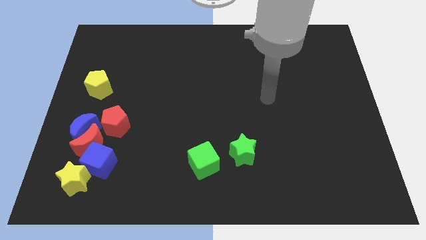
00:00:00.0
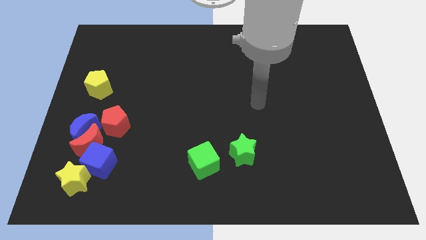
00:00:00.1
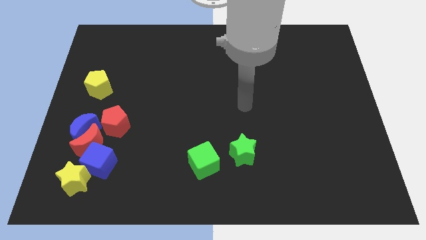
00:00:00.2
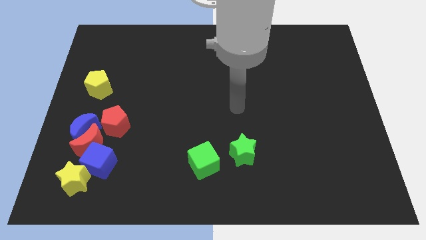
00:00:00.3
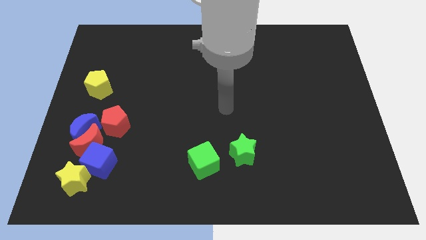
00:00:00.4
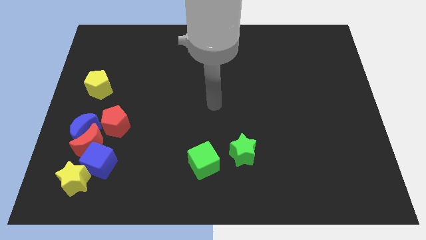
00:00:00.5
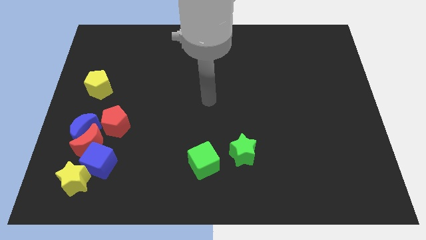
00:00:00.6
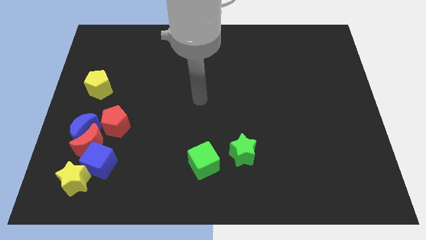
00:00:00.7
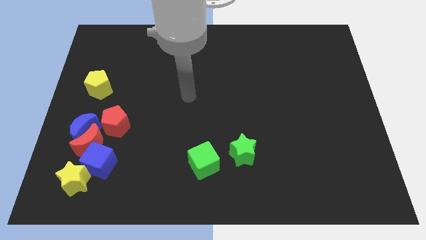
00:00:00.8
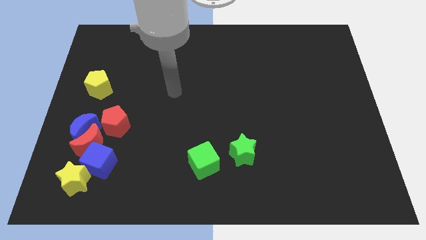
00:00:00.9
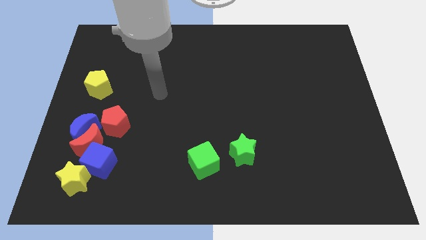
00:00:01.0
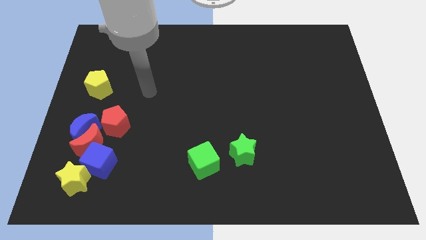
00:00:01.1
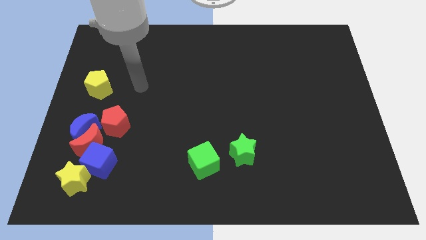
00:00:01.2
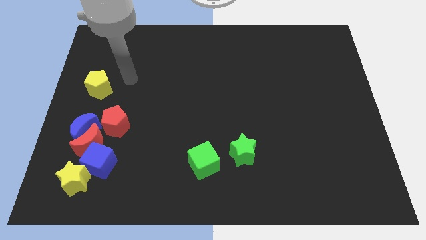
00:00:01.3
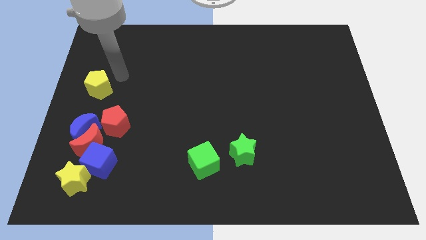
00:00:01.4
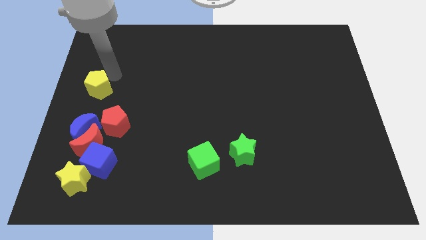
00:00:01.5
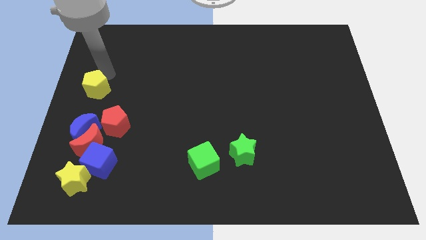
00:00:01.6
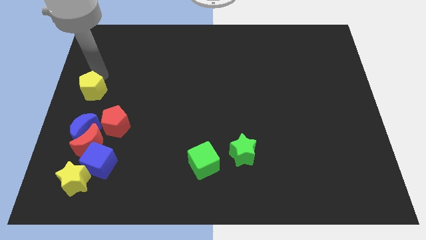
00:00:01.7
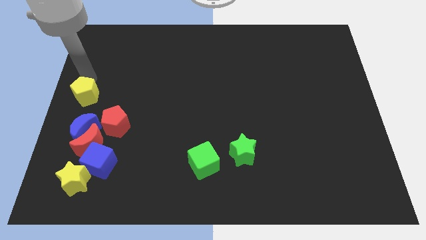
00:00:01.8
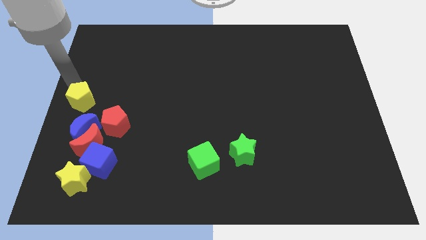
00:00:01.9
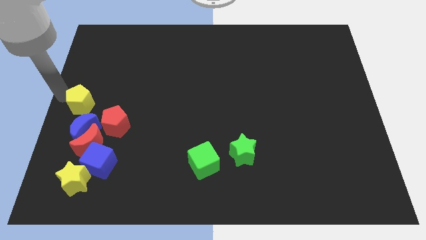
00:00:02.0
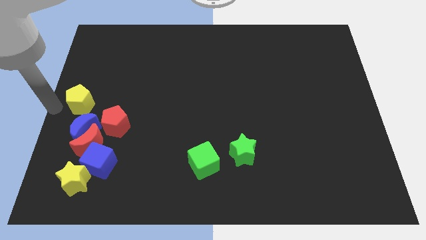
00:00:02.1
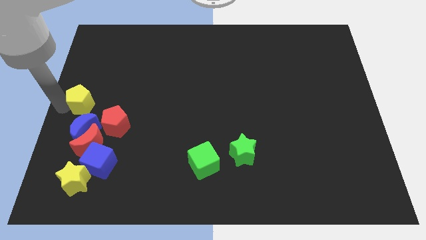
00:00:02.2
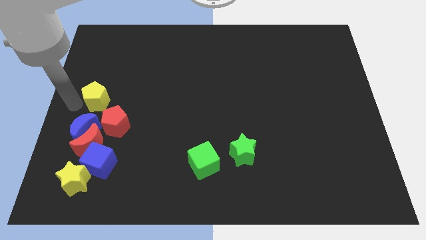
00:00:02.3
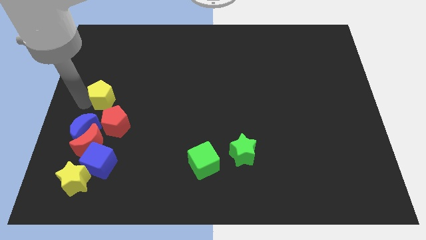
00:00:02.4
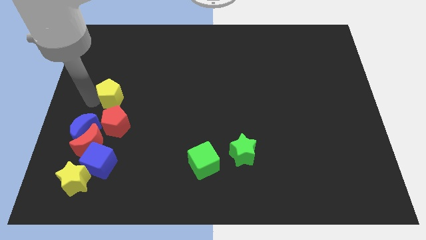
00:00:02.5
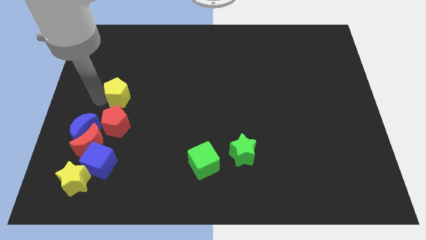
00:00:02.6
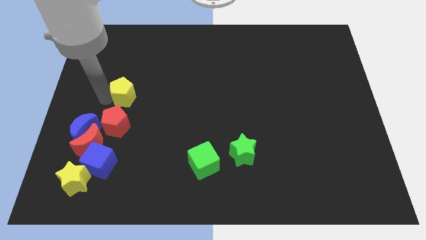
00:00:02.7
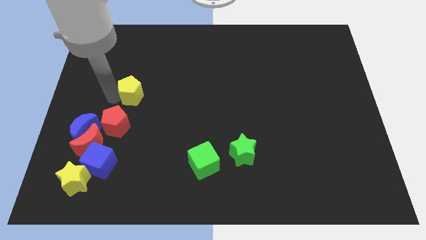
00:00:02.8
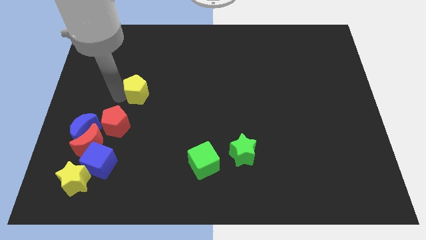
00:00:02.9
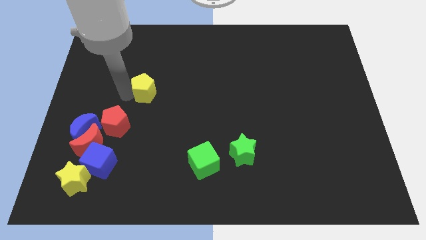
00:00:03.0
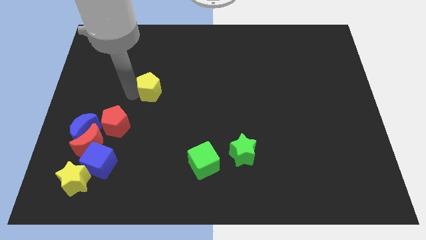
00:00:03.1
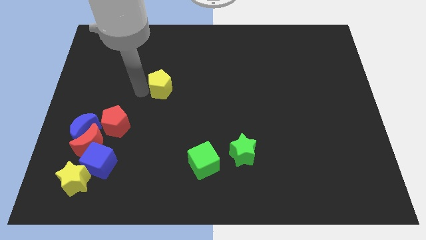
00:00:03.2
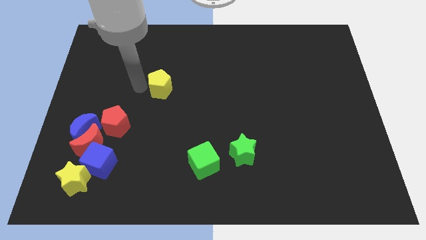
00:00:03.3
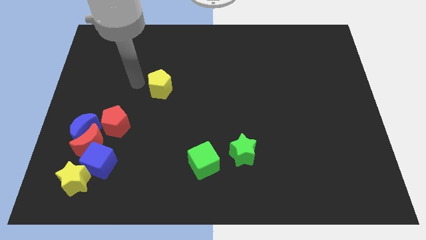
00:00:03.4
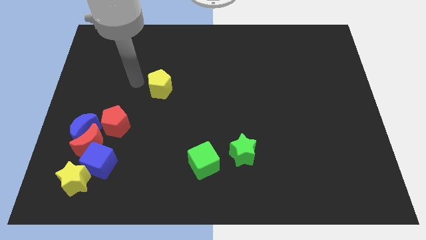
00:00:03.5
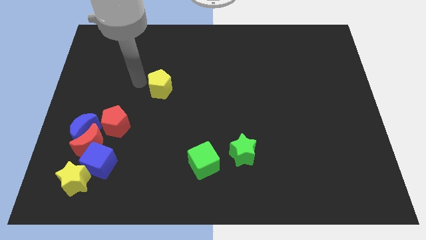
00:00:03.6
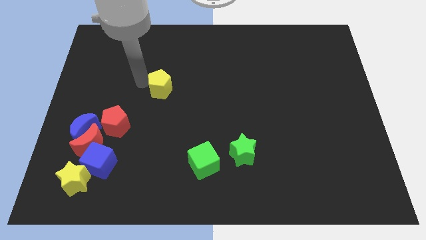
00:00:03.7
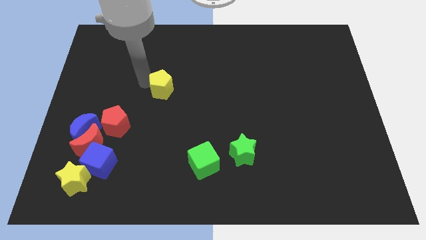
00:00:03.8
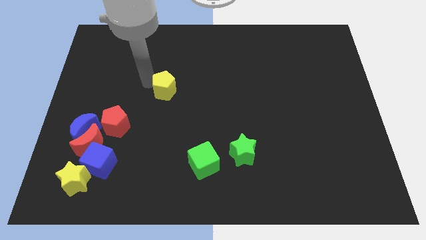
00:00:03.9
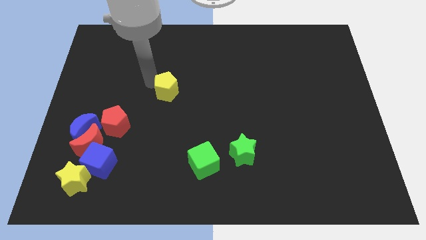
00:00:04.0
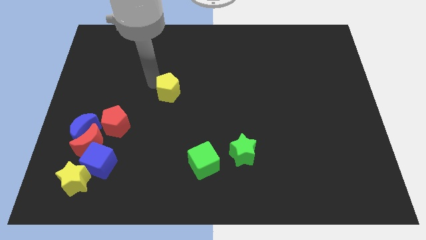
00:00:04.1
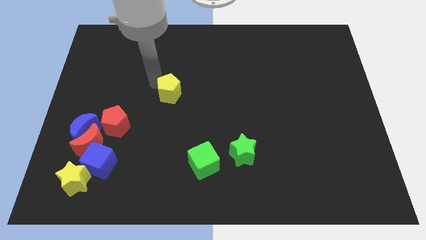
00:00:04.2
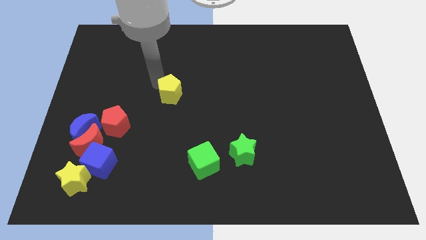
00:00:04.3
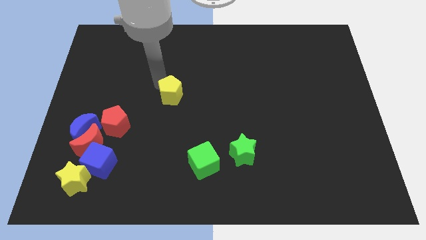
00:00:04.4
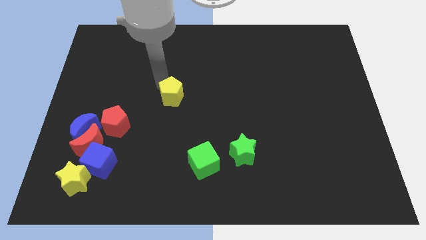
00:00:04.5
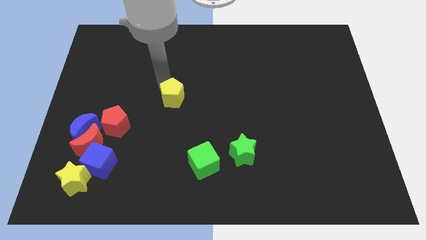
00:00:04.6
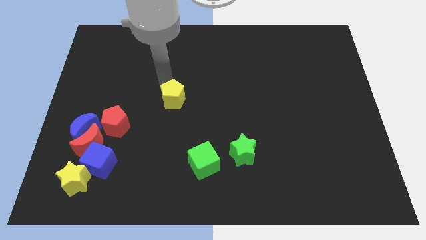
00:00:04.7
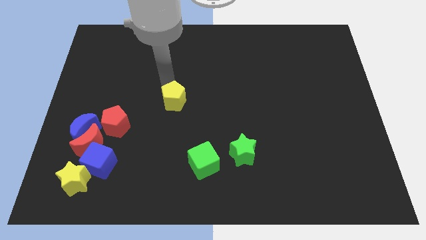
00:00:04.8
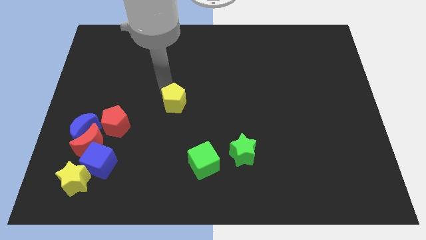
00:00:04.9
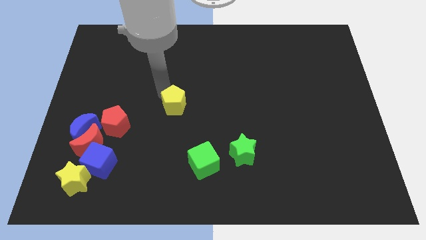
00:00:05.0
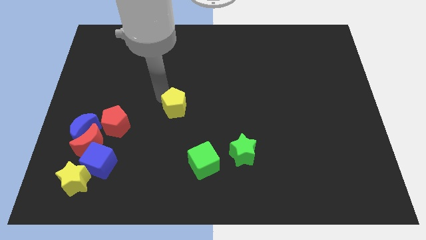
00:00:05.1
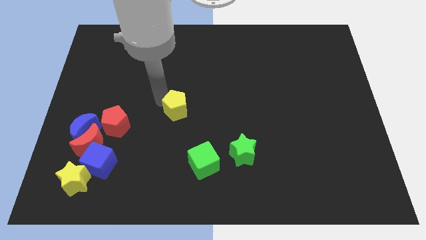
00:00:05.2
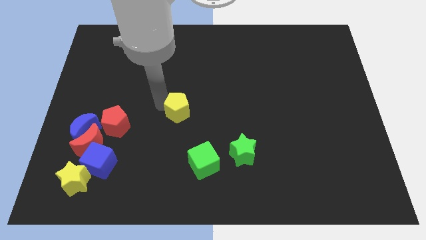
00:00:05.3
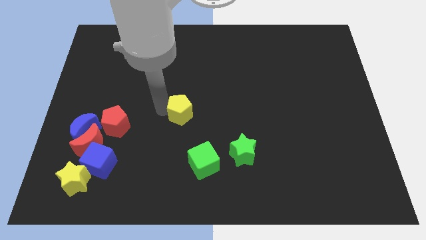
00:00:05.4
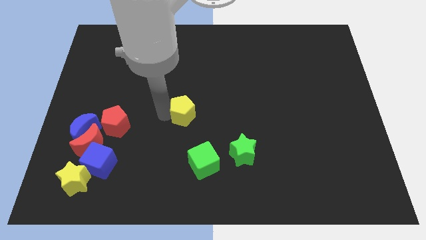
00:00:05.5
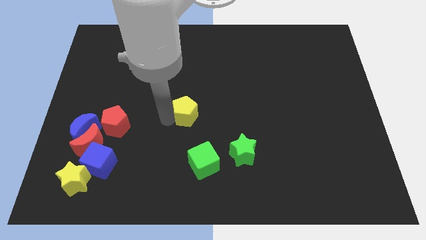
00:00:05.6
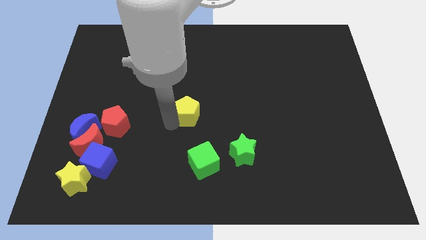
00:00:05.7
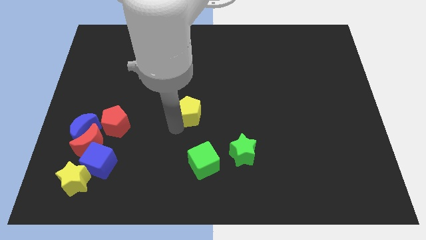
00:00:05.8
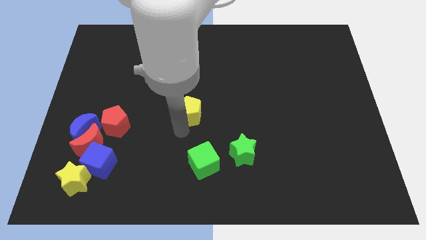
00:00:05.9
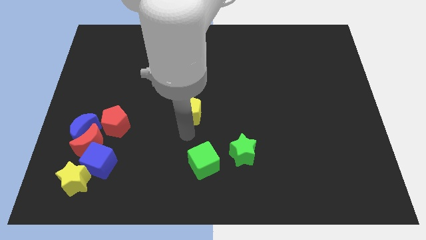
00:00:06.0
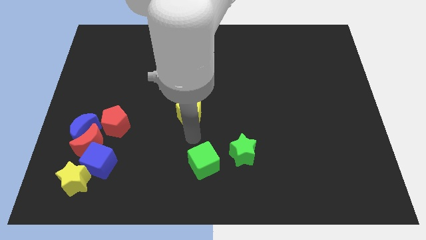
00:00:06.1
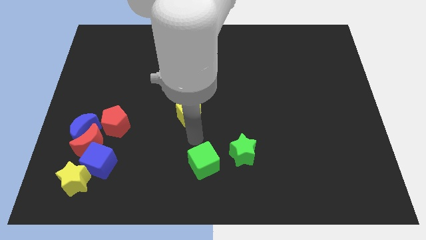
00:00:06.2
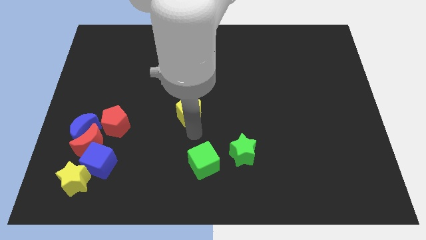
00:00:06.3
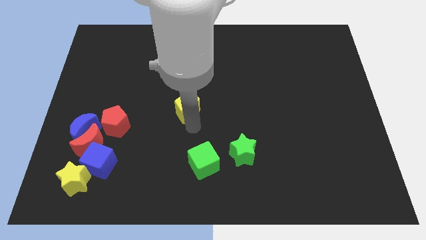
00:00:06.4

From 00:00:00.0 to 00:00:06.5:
move the yellow pentagon to the right

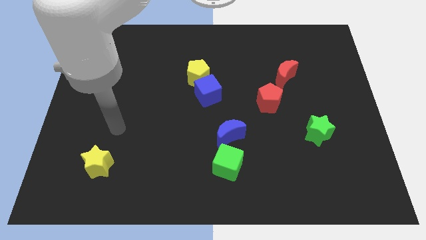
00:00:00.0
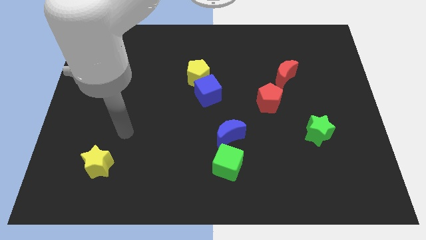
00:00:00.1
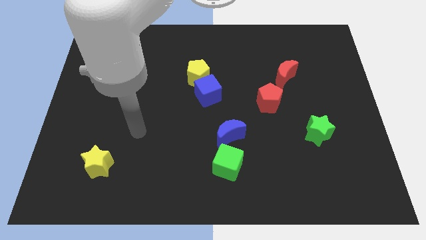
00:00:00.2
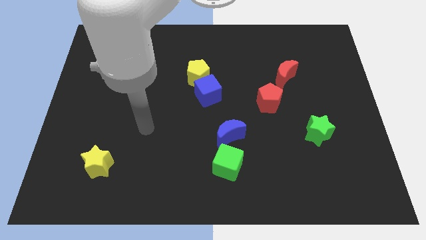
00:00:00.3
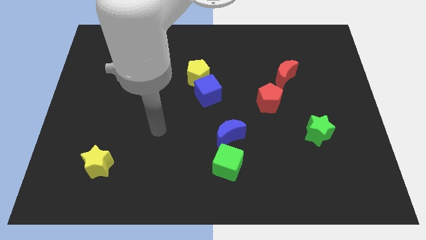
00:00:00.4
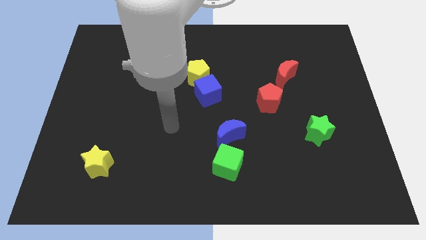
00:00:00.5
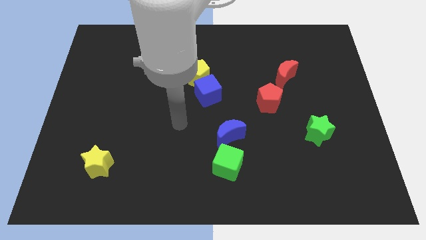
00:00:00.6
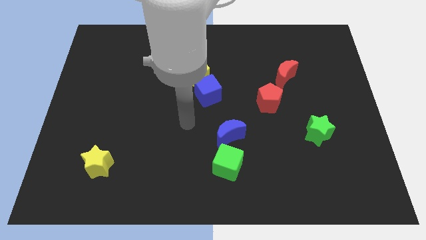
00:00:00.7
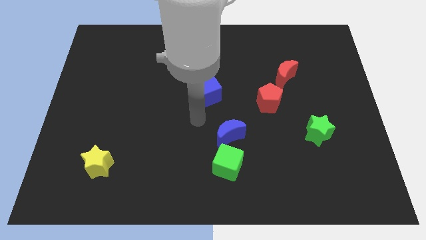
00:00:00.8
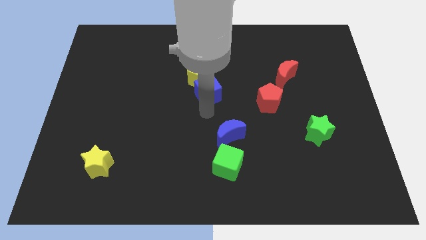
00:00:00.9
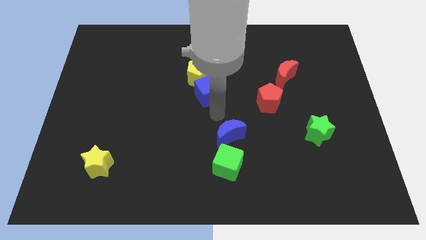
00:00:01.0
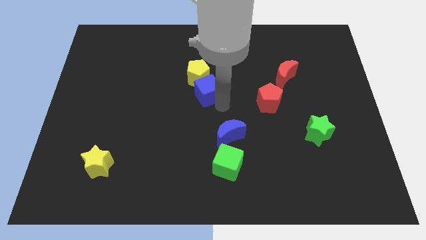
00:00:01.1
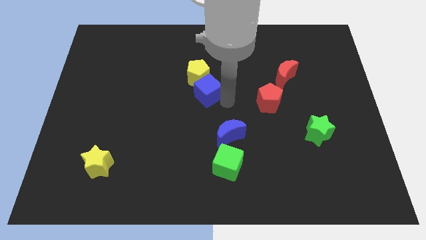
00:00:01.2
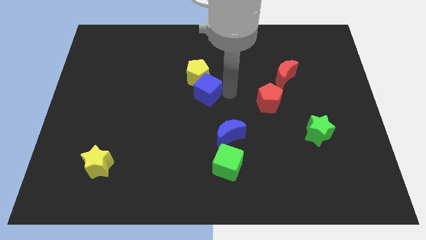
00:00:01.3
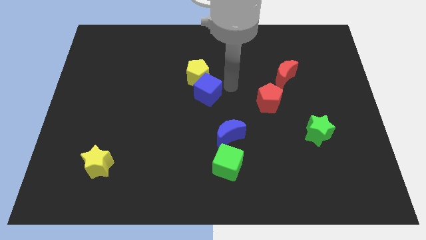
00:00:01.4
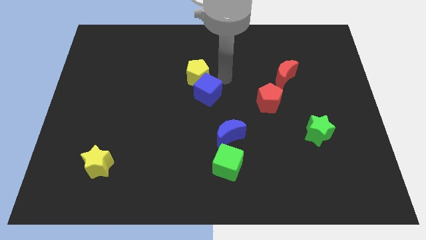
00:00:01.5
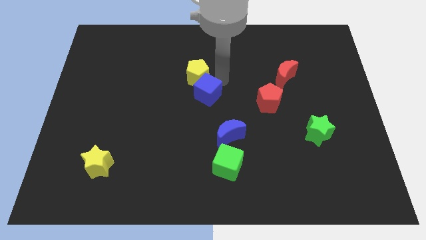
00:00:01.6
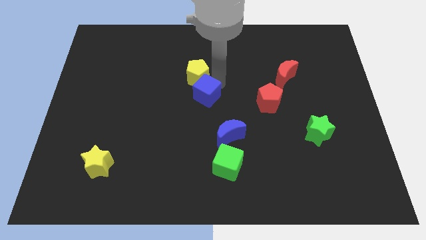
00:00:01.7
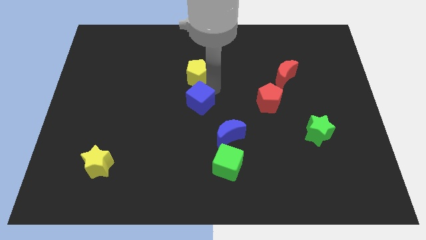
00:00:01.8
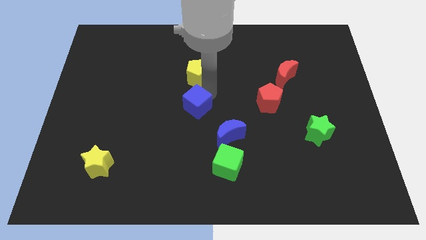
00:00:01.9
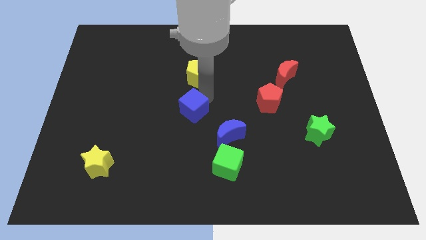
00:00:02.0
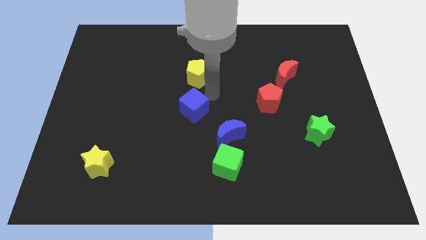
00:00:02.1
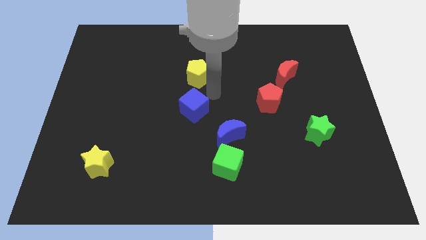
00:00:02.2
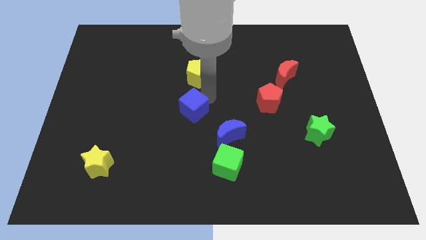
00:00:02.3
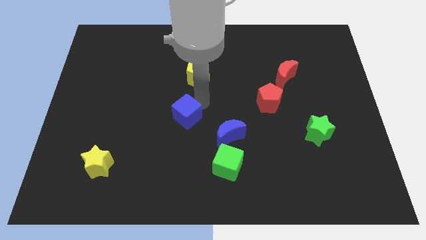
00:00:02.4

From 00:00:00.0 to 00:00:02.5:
push the blue cube downwards and left somewhat
